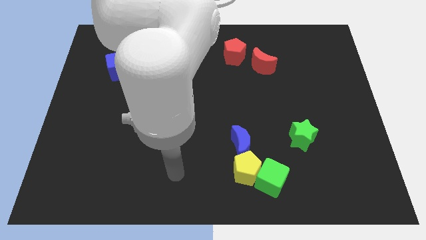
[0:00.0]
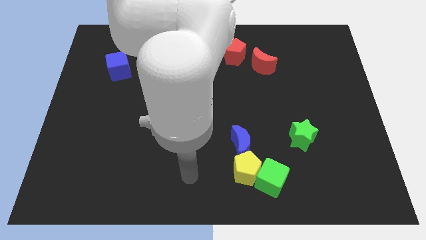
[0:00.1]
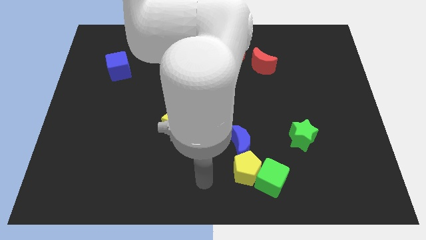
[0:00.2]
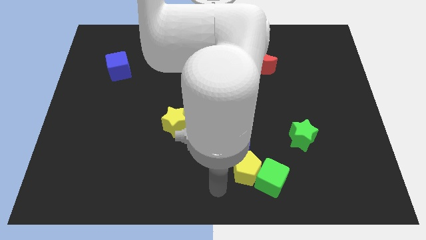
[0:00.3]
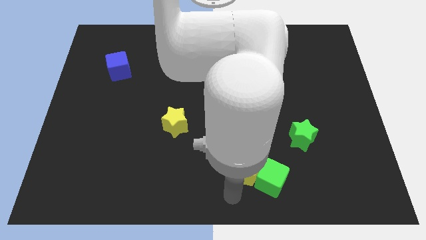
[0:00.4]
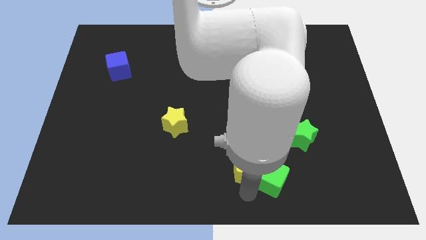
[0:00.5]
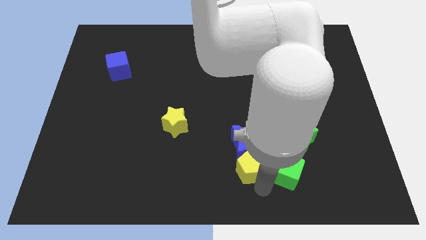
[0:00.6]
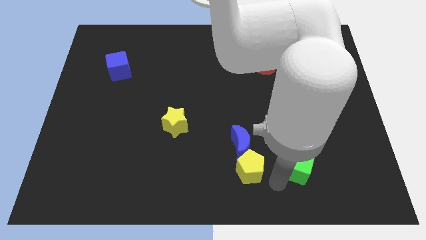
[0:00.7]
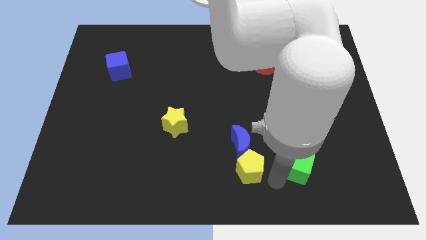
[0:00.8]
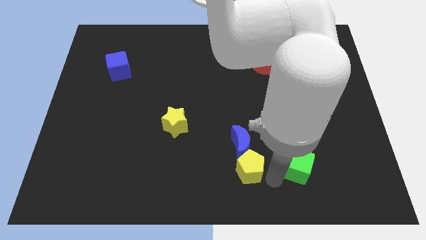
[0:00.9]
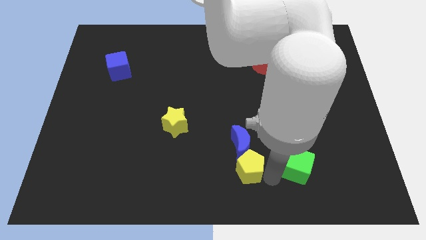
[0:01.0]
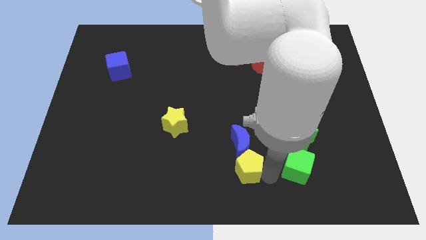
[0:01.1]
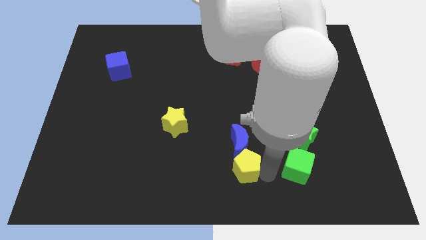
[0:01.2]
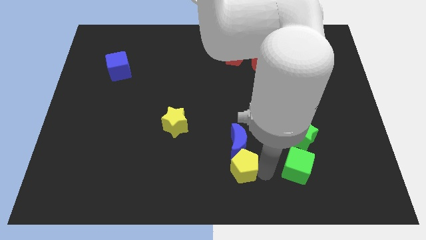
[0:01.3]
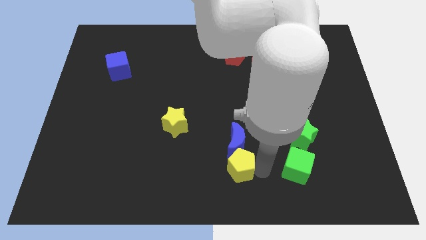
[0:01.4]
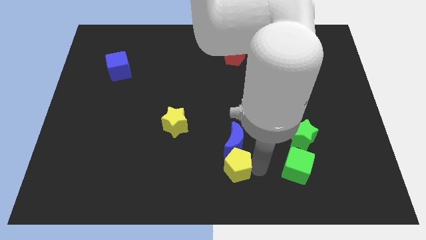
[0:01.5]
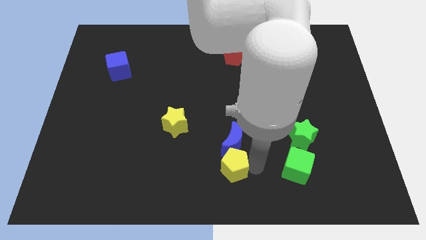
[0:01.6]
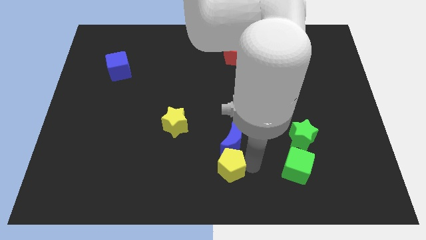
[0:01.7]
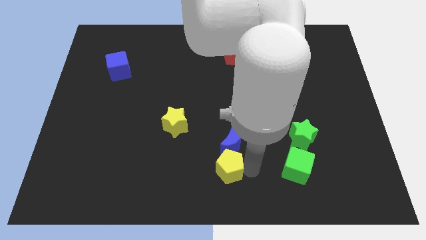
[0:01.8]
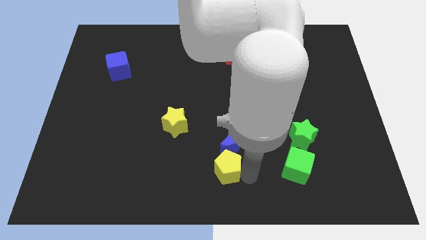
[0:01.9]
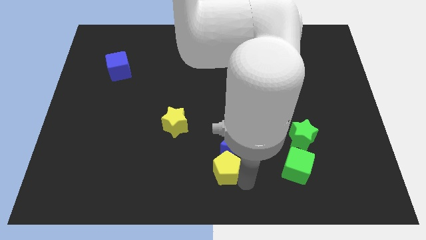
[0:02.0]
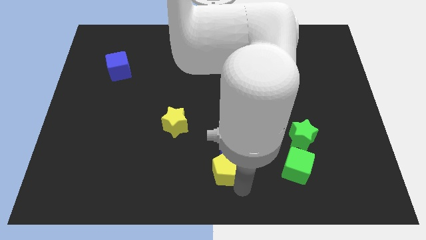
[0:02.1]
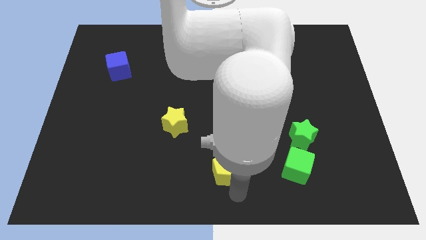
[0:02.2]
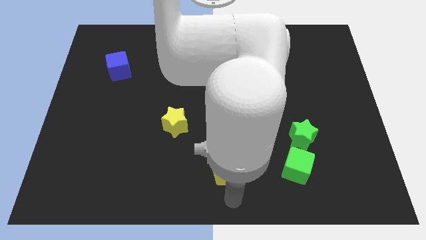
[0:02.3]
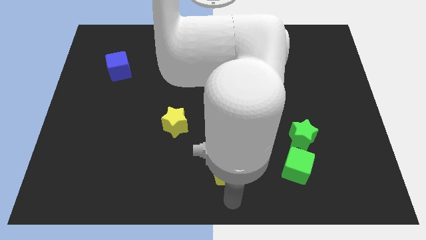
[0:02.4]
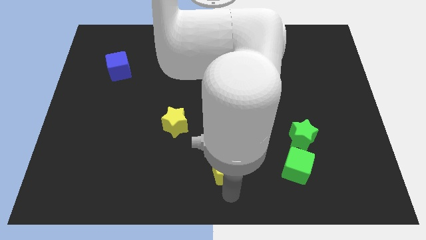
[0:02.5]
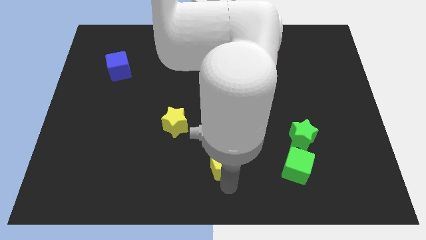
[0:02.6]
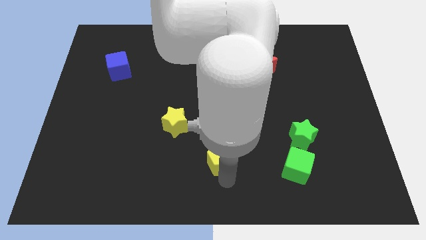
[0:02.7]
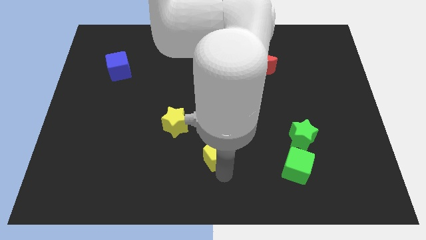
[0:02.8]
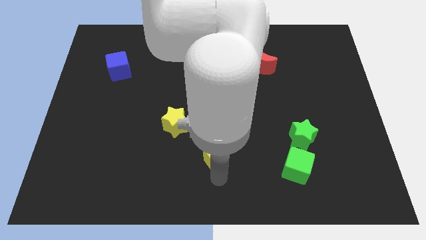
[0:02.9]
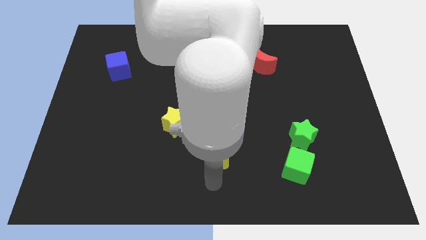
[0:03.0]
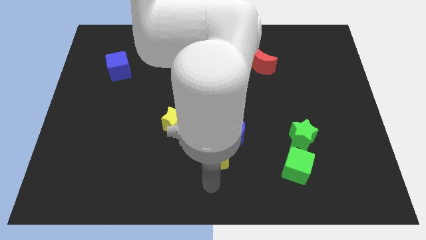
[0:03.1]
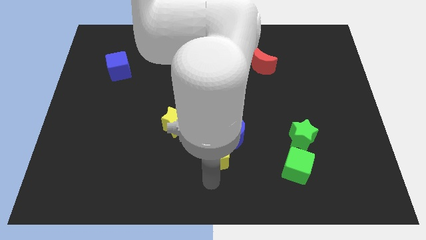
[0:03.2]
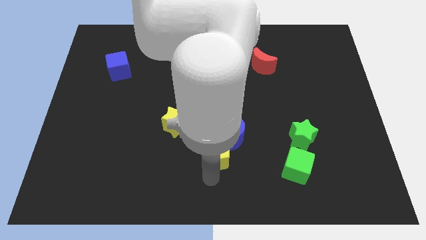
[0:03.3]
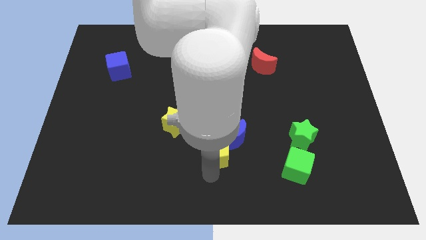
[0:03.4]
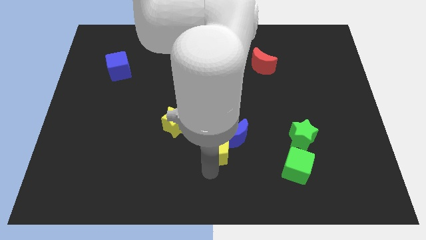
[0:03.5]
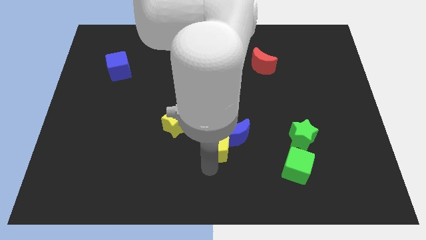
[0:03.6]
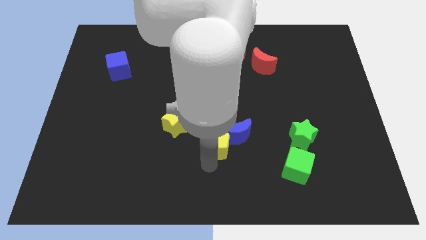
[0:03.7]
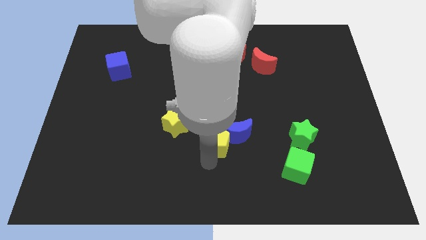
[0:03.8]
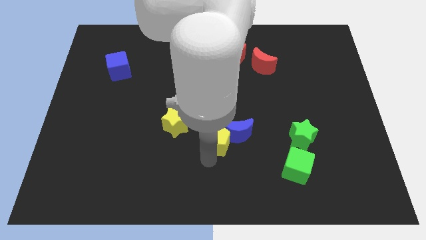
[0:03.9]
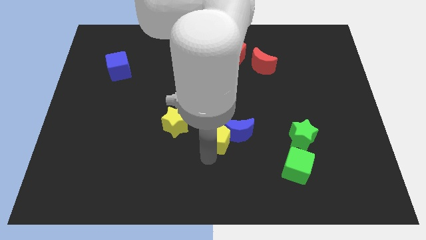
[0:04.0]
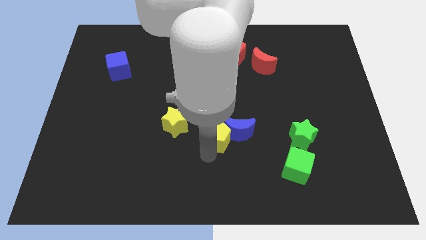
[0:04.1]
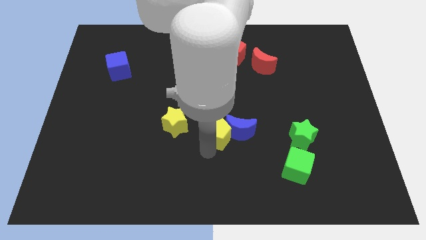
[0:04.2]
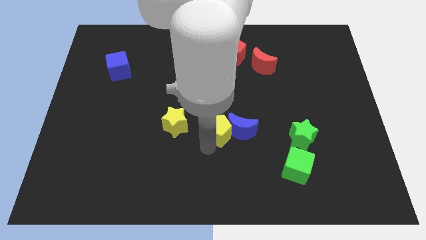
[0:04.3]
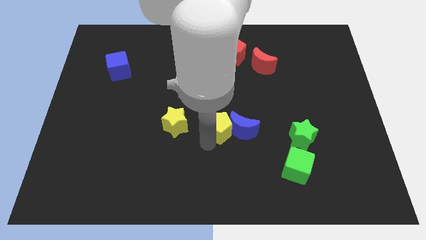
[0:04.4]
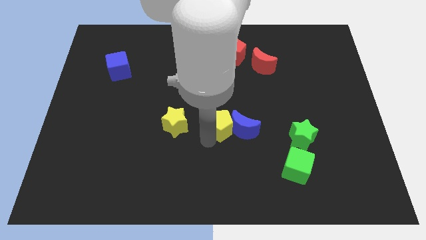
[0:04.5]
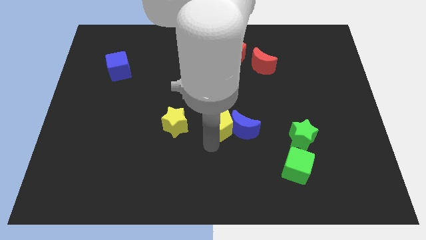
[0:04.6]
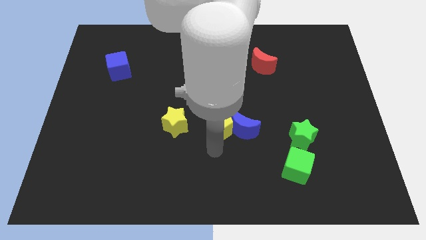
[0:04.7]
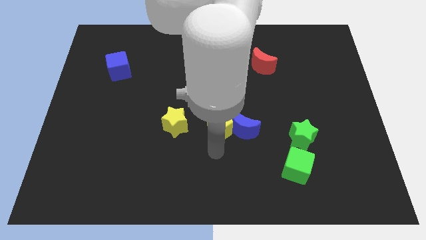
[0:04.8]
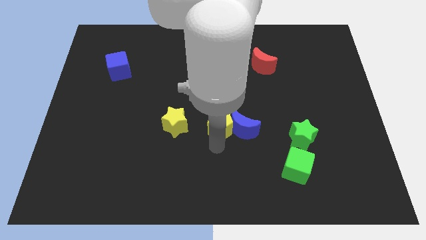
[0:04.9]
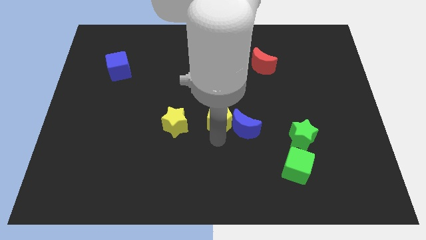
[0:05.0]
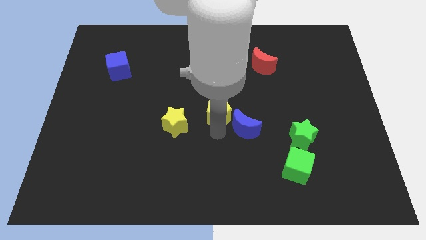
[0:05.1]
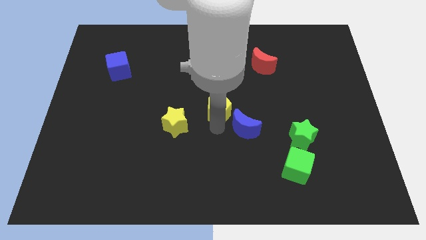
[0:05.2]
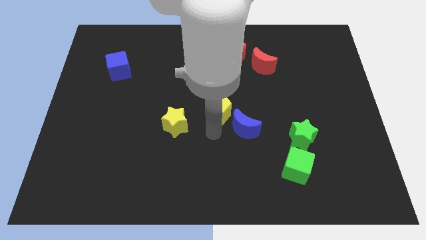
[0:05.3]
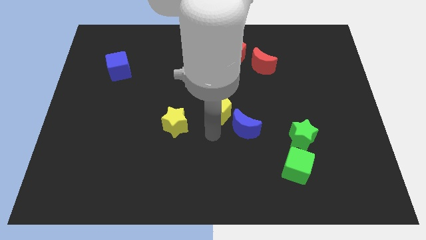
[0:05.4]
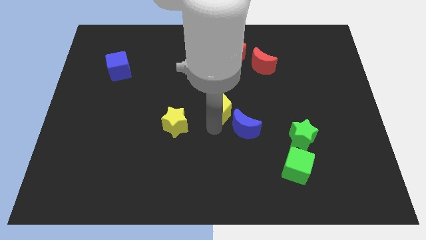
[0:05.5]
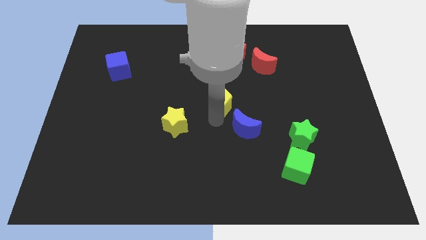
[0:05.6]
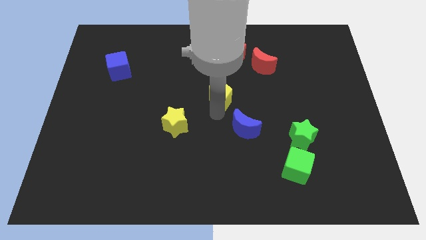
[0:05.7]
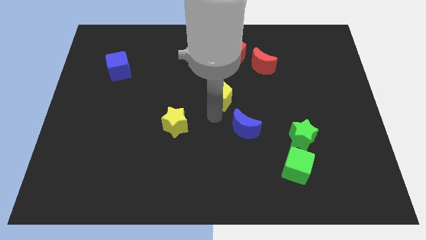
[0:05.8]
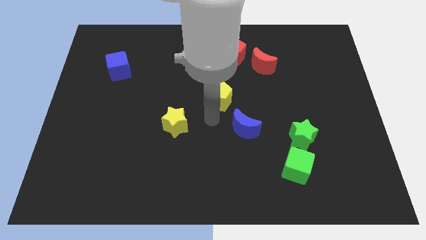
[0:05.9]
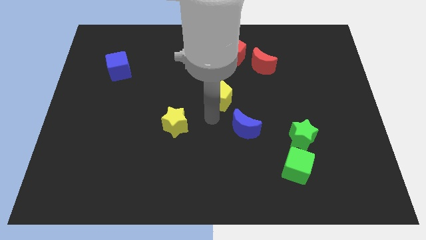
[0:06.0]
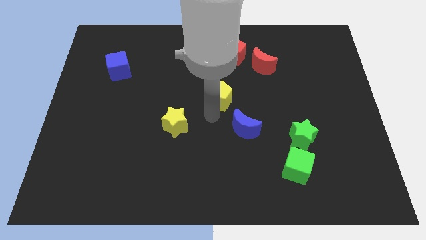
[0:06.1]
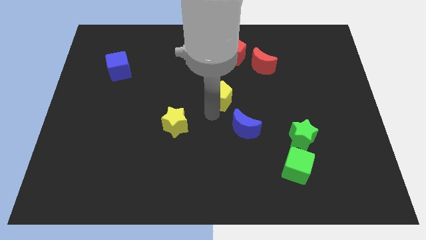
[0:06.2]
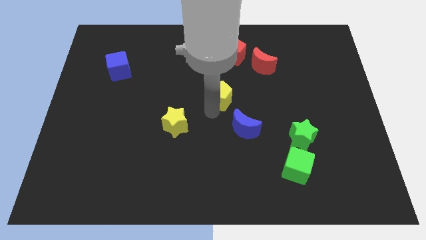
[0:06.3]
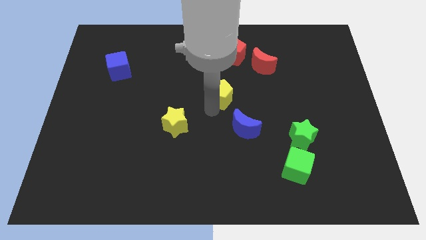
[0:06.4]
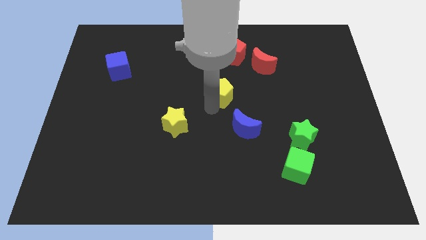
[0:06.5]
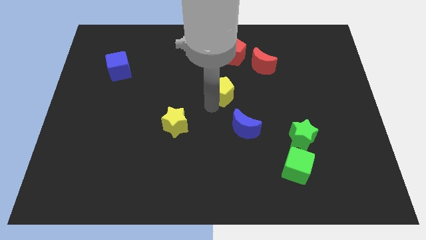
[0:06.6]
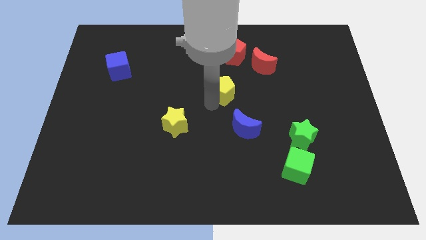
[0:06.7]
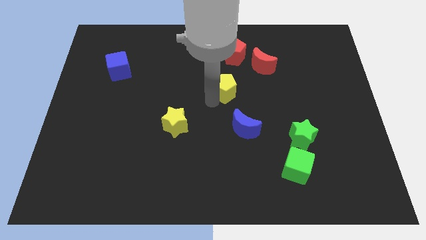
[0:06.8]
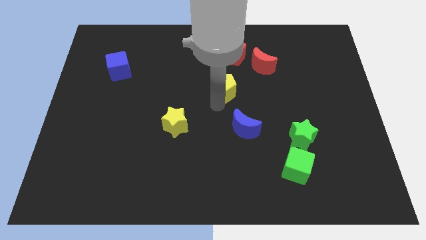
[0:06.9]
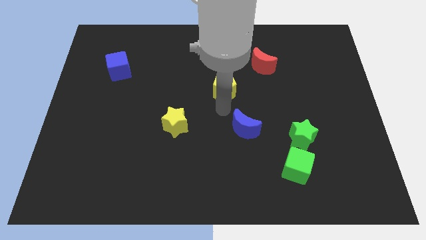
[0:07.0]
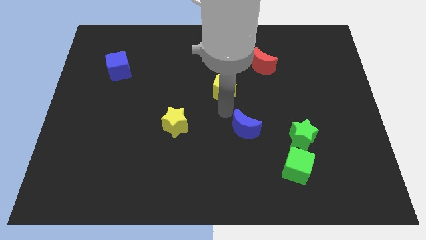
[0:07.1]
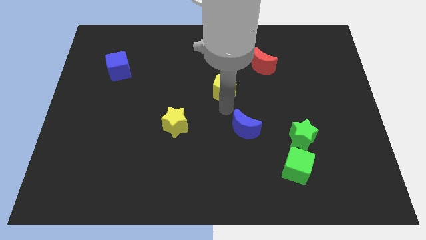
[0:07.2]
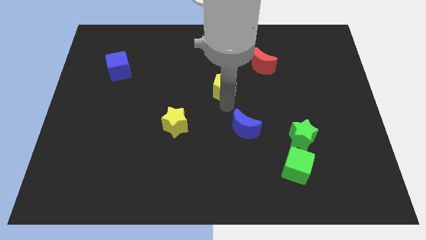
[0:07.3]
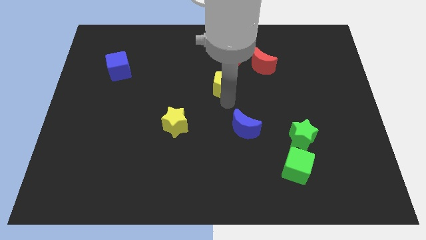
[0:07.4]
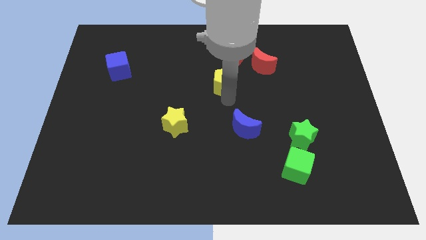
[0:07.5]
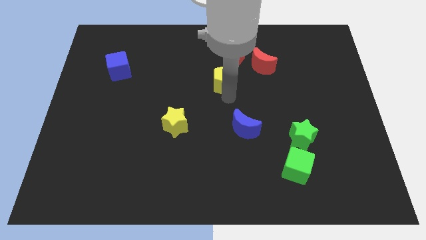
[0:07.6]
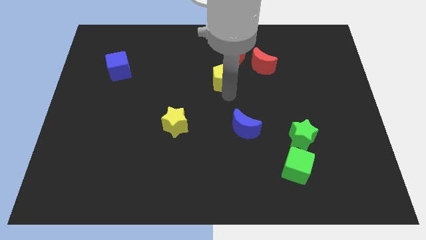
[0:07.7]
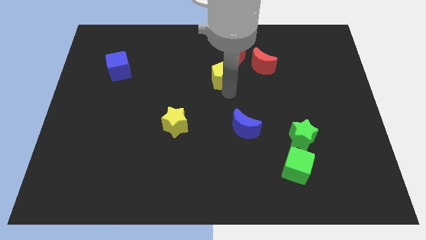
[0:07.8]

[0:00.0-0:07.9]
slide the yellow pentagon left of the red moon
